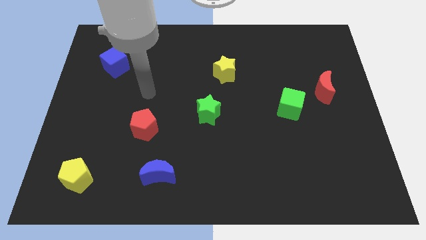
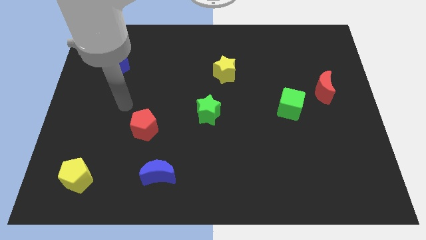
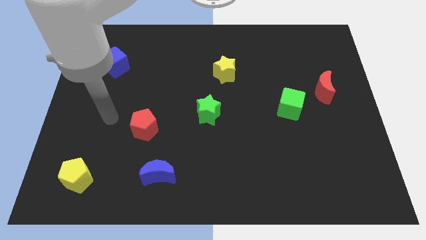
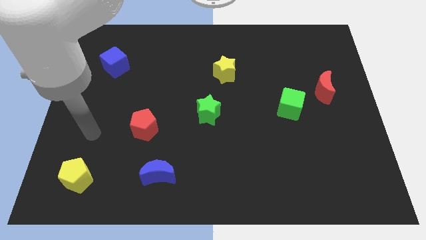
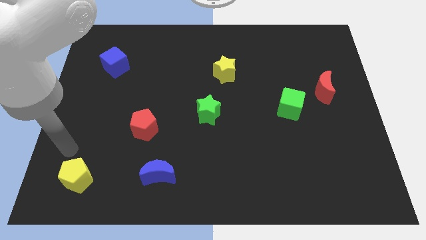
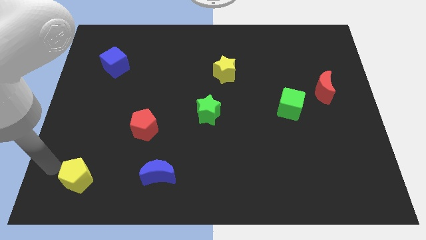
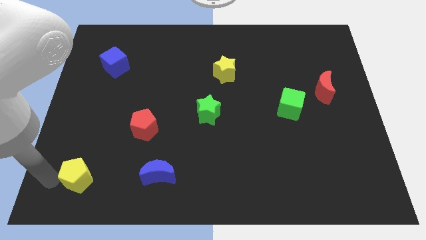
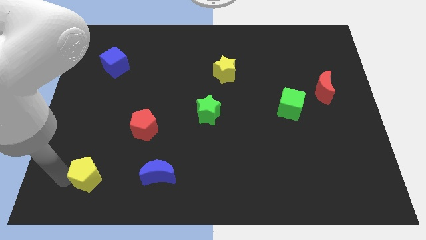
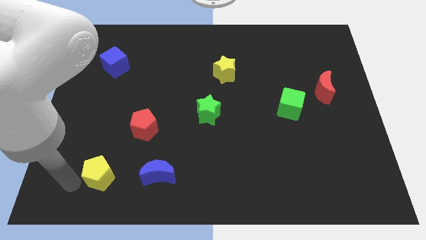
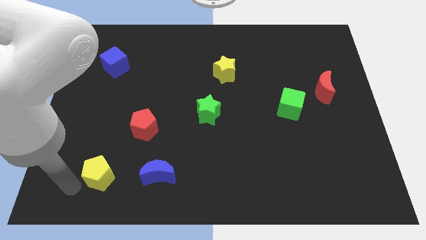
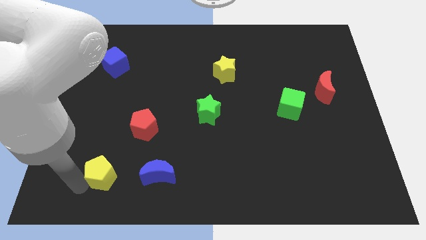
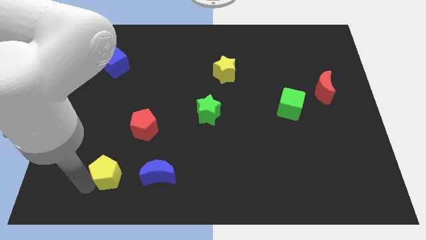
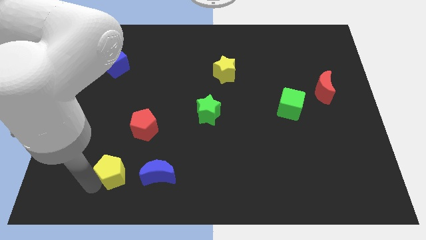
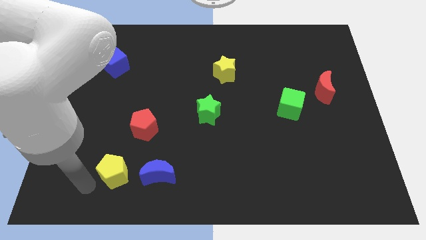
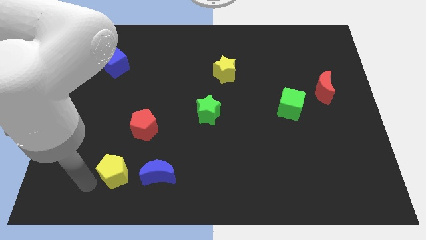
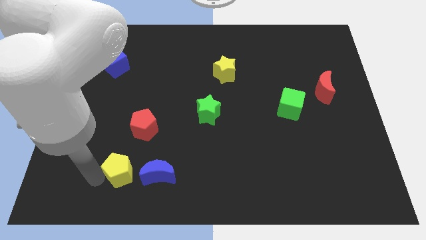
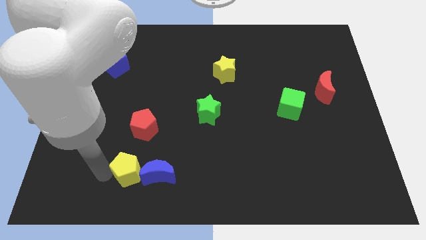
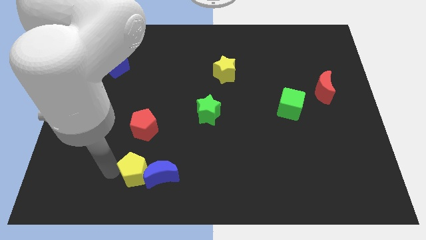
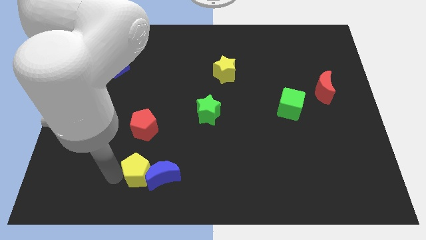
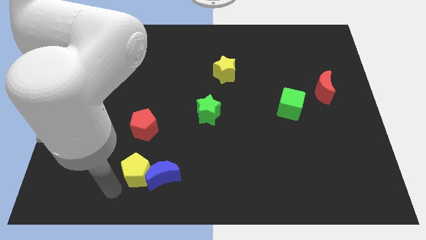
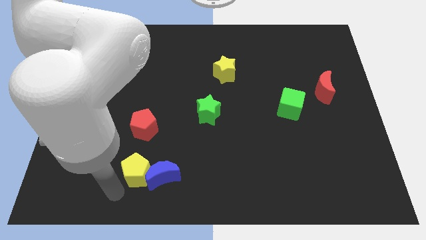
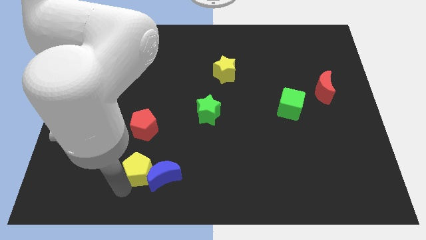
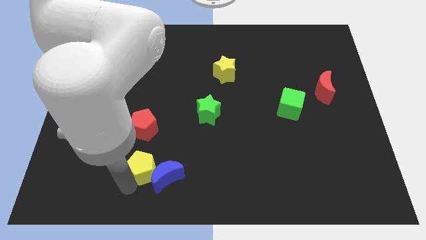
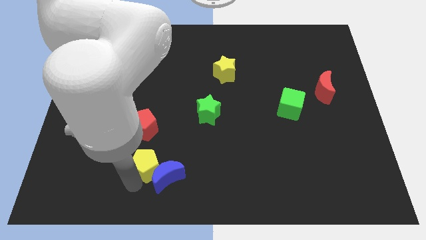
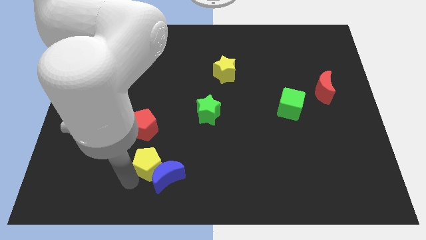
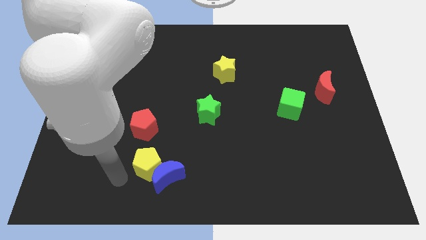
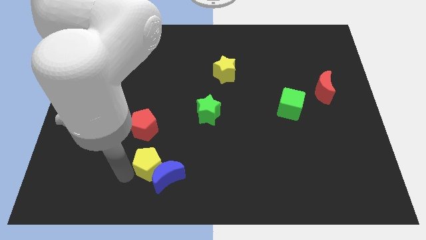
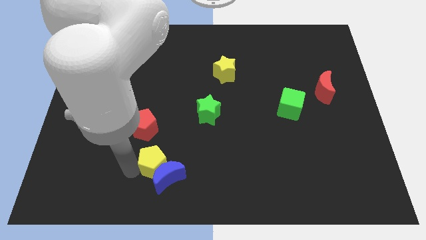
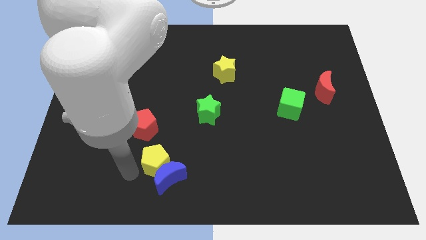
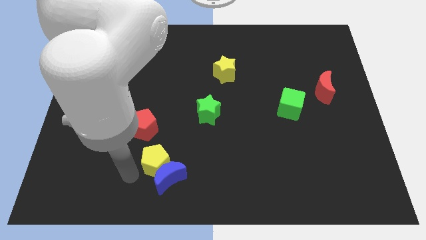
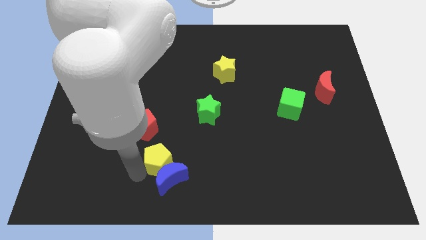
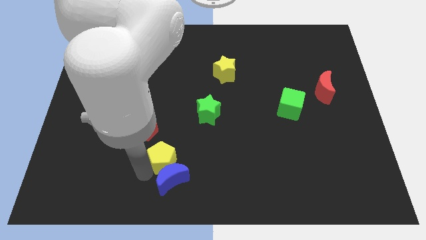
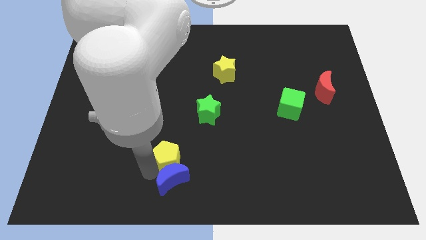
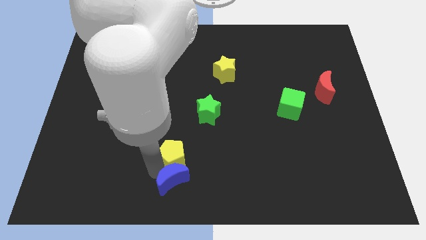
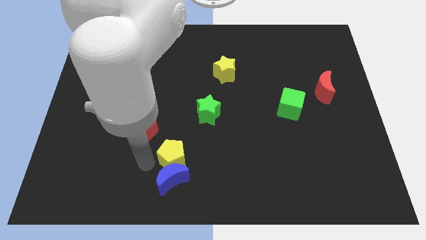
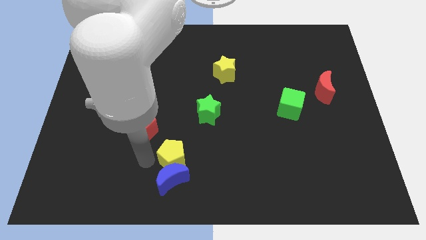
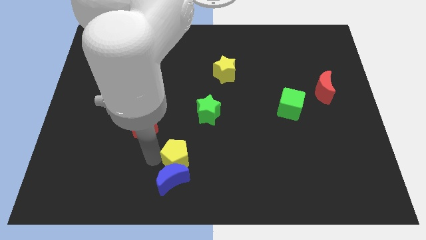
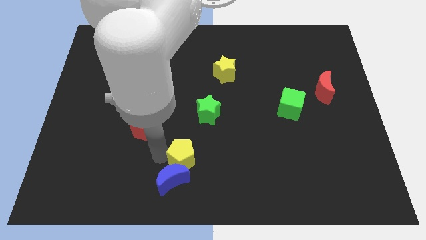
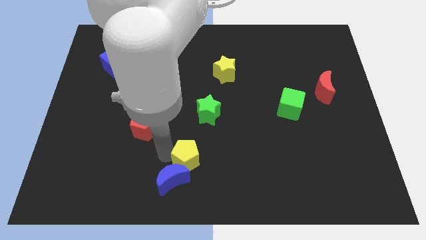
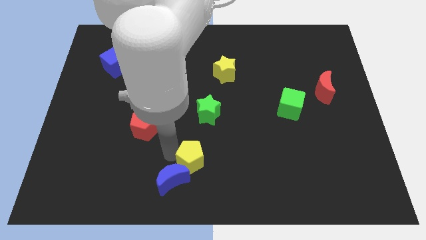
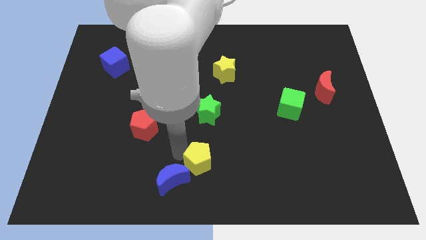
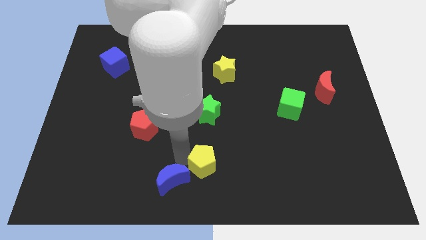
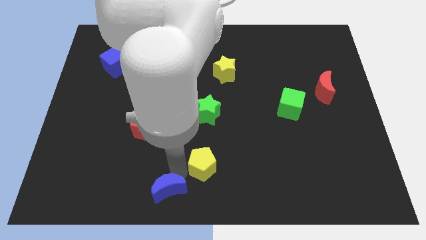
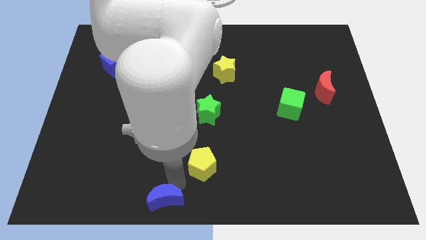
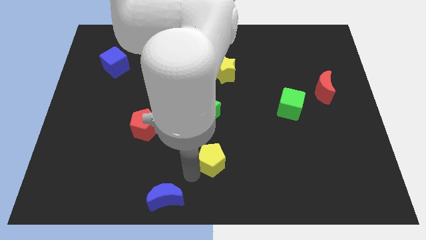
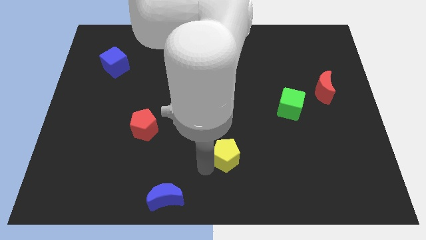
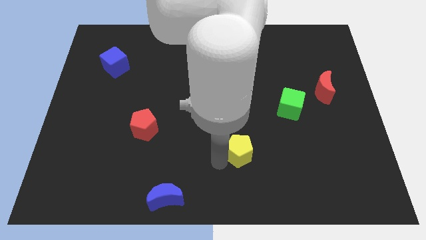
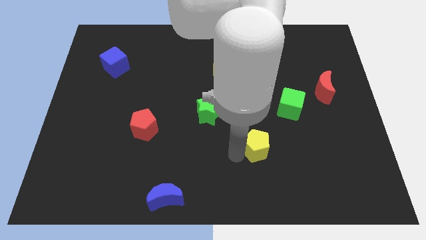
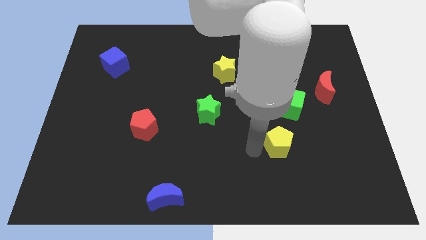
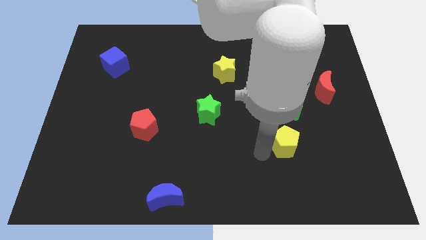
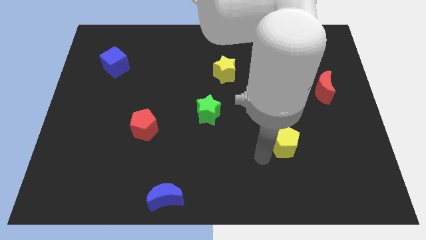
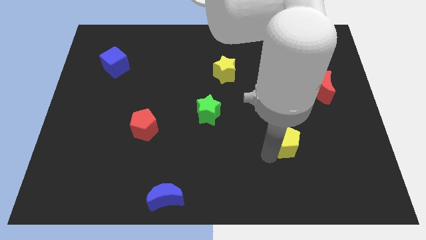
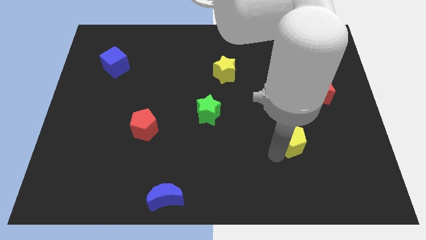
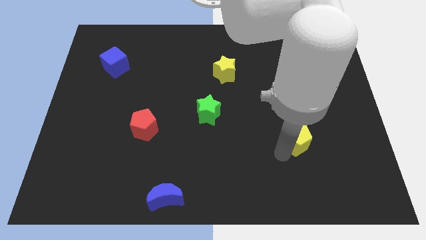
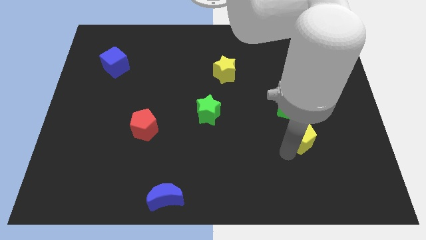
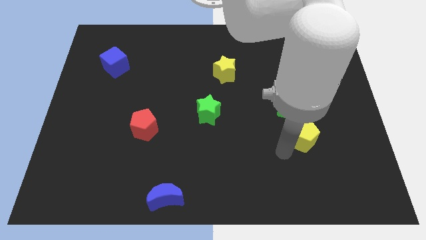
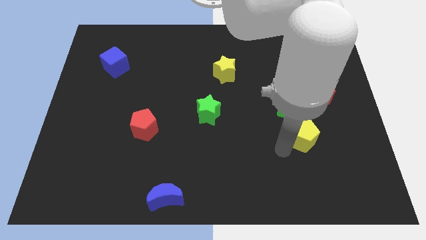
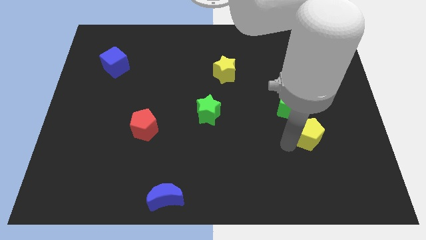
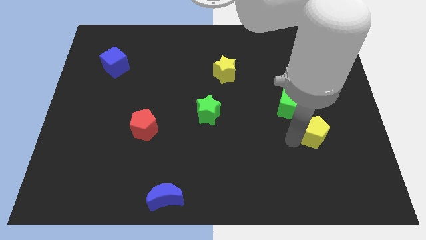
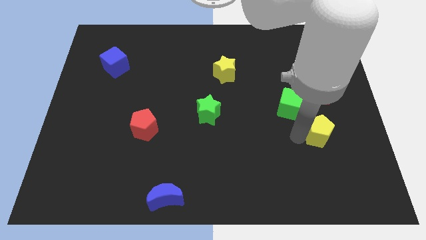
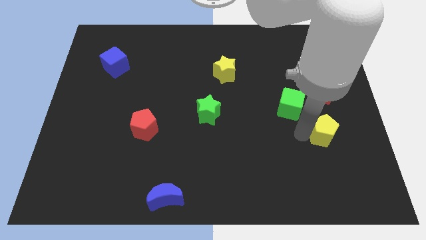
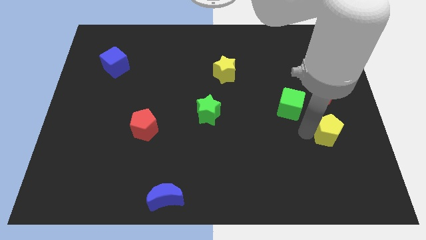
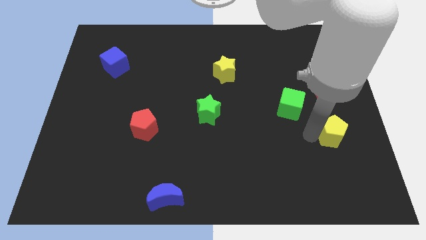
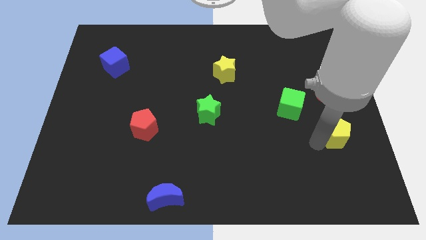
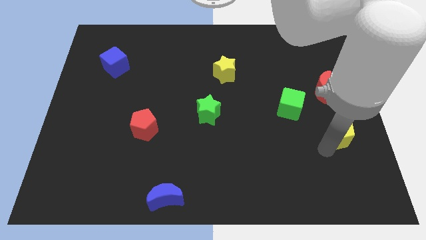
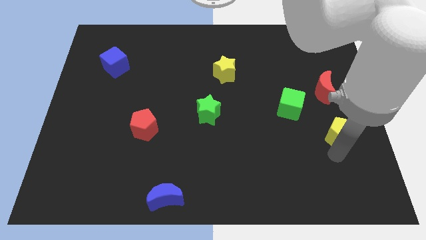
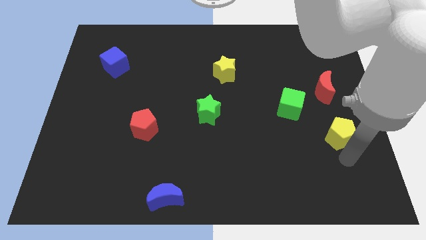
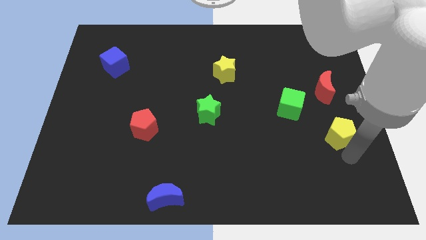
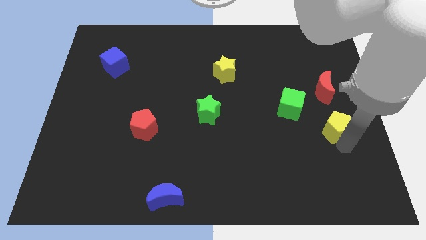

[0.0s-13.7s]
push the yellow pentagon to the center right
